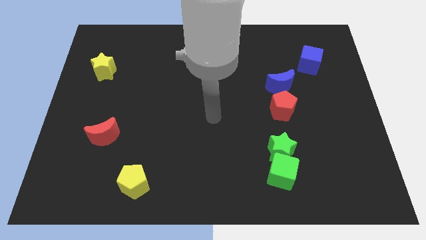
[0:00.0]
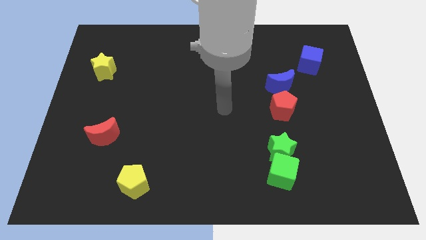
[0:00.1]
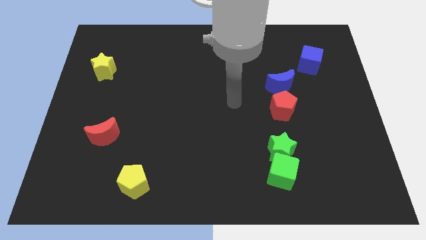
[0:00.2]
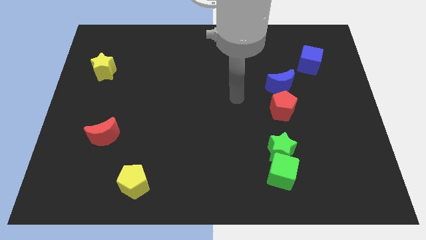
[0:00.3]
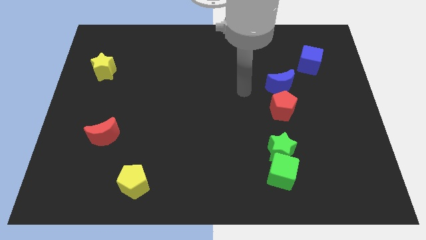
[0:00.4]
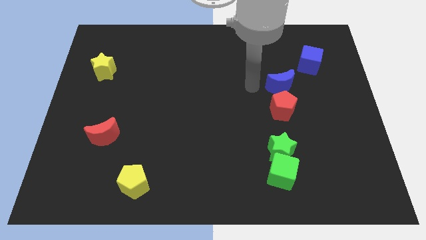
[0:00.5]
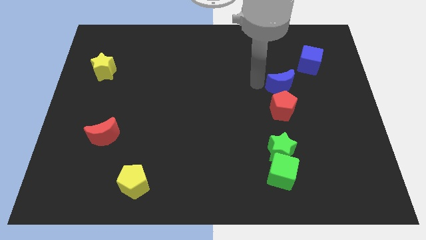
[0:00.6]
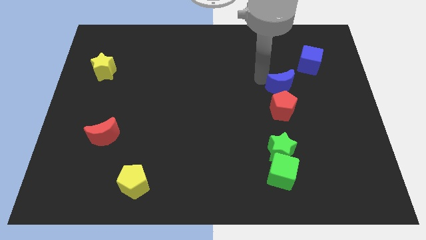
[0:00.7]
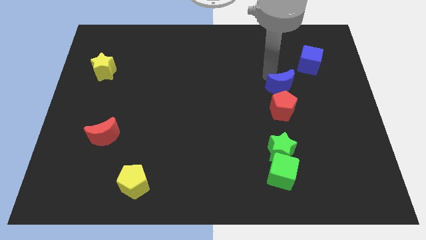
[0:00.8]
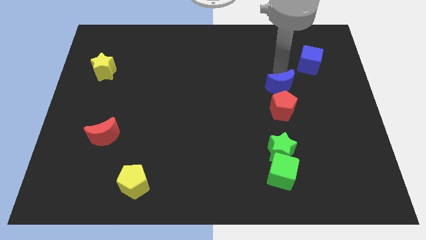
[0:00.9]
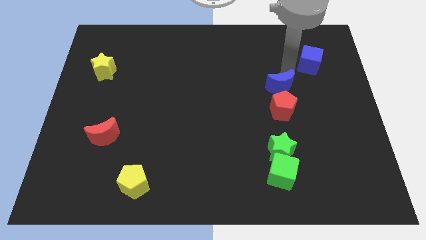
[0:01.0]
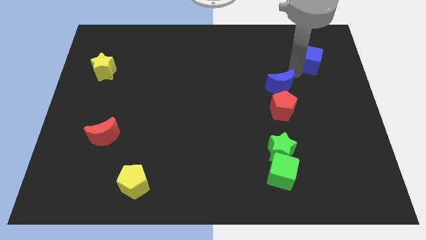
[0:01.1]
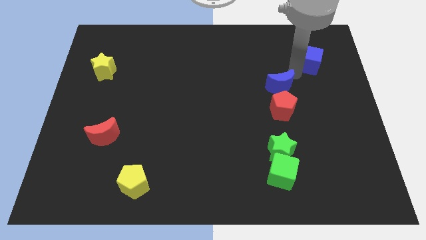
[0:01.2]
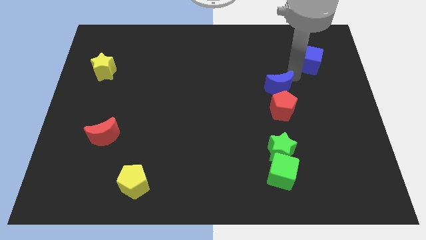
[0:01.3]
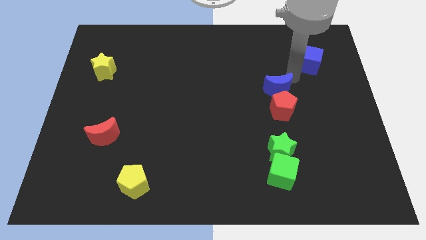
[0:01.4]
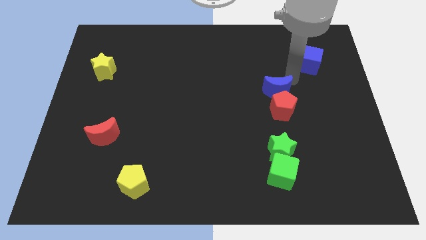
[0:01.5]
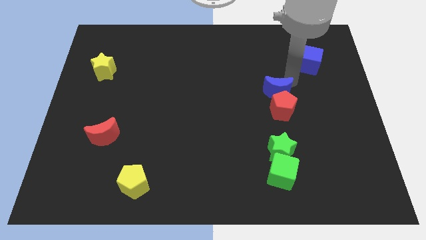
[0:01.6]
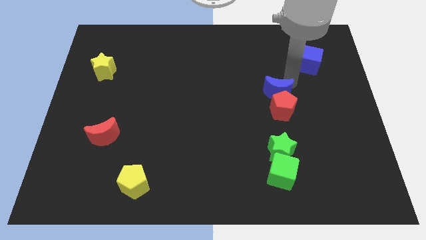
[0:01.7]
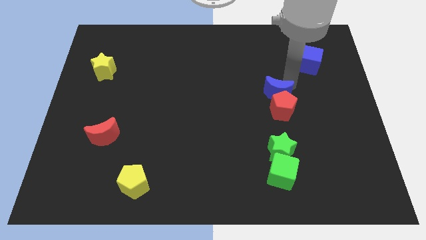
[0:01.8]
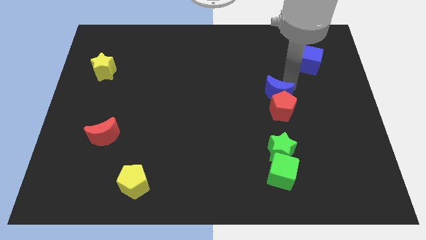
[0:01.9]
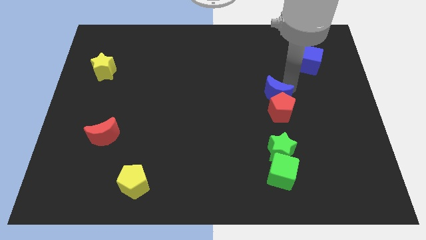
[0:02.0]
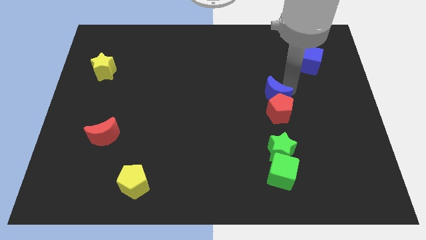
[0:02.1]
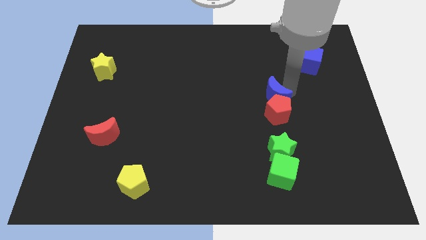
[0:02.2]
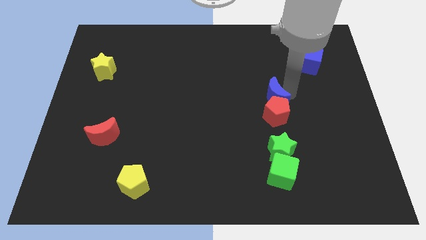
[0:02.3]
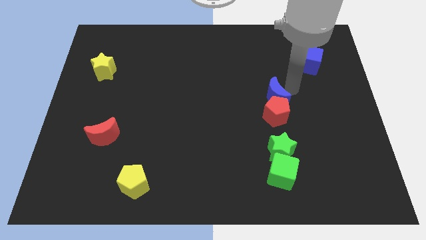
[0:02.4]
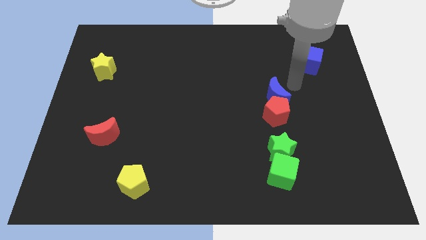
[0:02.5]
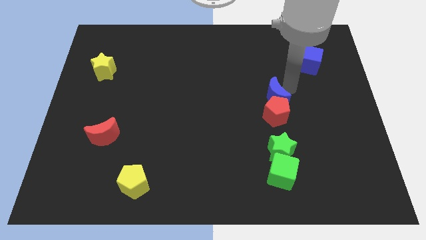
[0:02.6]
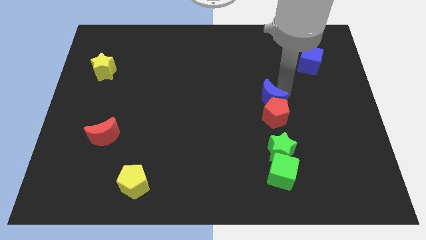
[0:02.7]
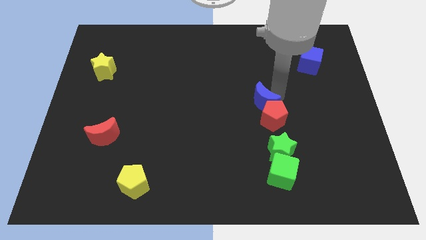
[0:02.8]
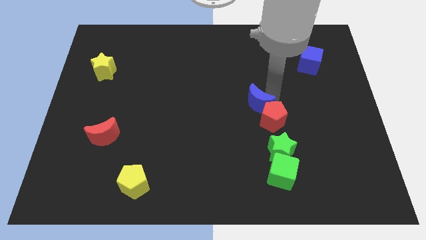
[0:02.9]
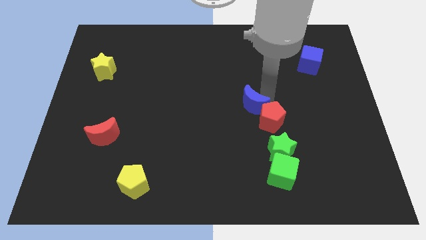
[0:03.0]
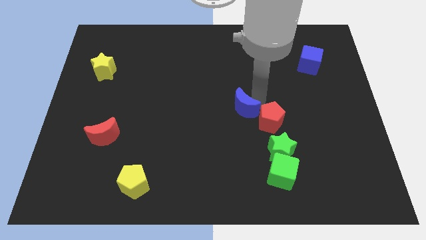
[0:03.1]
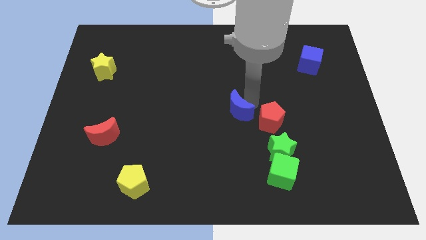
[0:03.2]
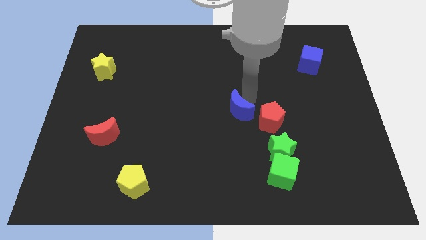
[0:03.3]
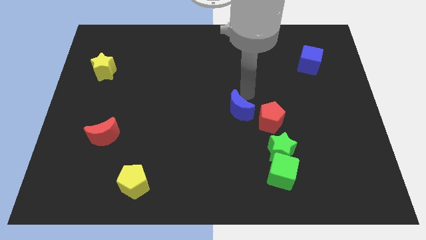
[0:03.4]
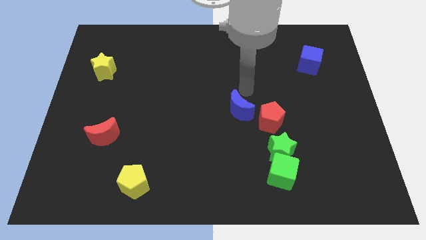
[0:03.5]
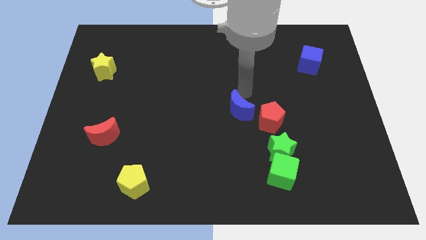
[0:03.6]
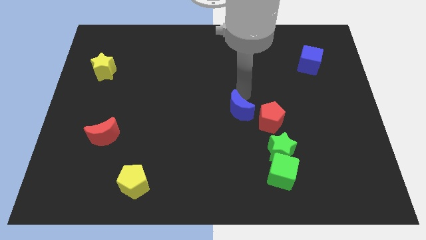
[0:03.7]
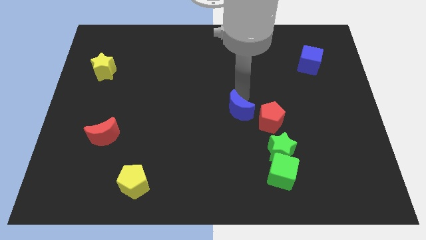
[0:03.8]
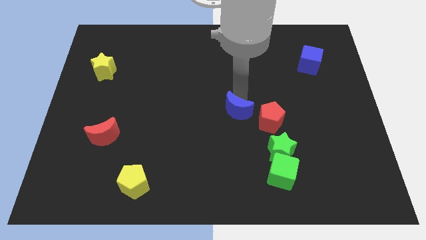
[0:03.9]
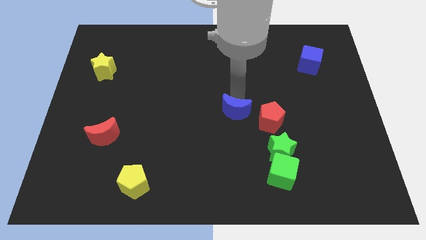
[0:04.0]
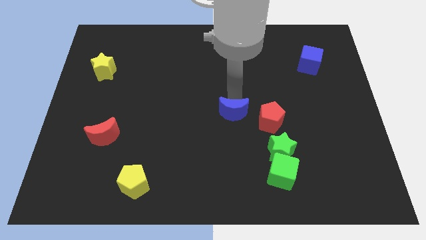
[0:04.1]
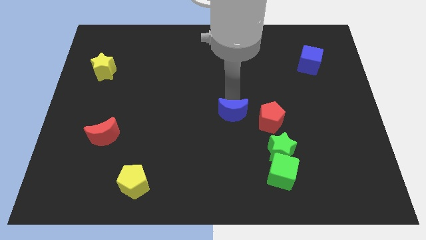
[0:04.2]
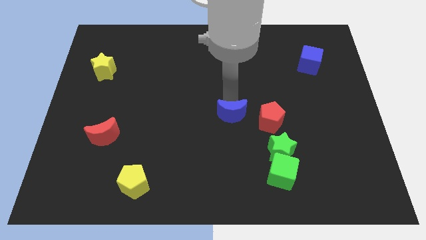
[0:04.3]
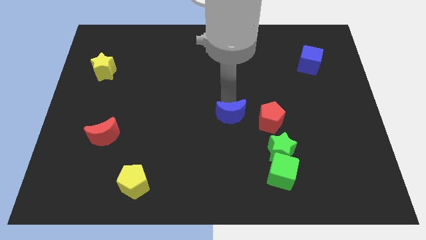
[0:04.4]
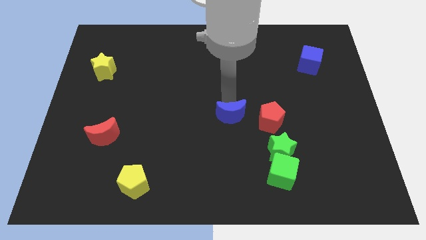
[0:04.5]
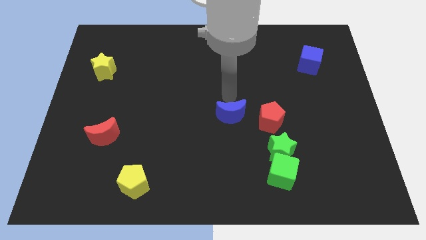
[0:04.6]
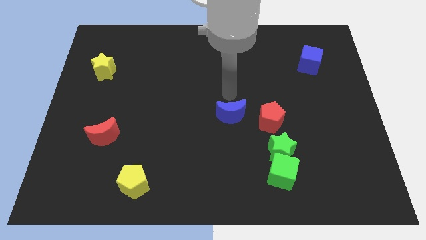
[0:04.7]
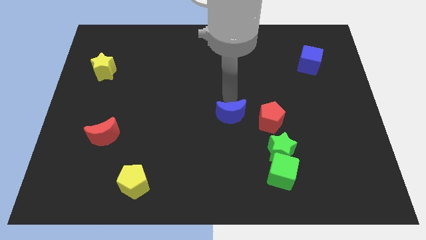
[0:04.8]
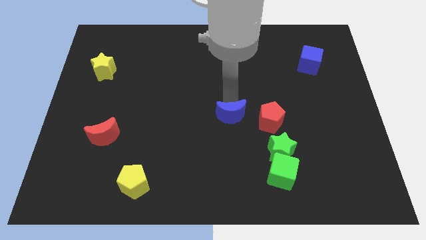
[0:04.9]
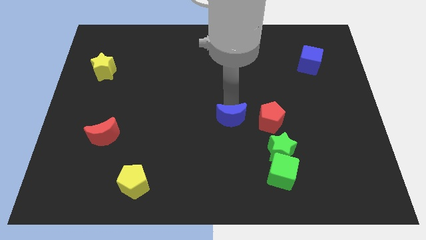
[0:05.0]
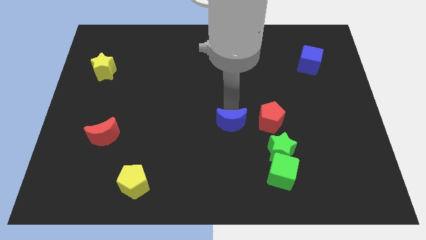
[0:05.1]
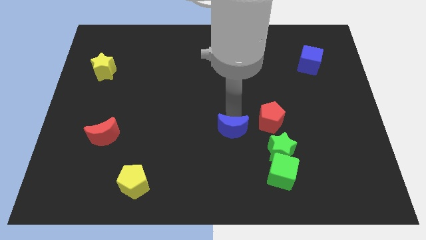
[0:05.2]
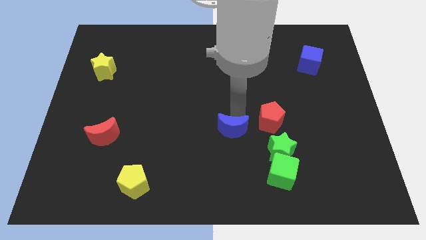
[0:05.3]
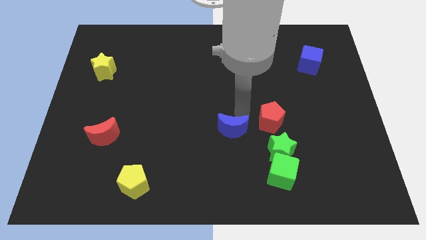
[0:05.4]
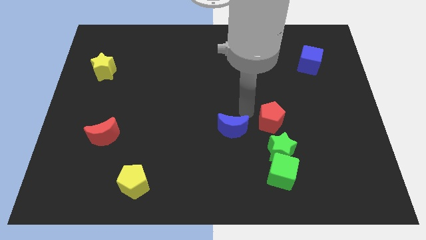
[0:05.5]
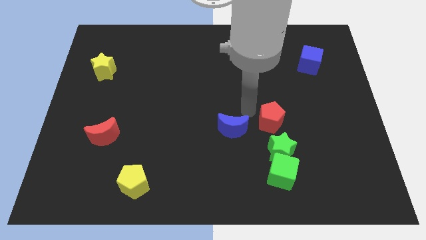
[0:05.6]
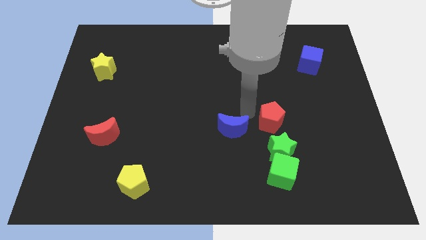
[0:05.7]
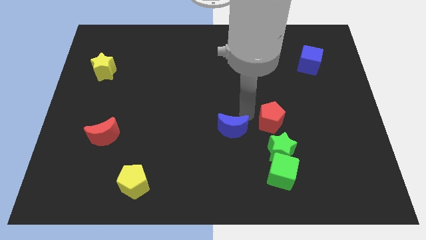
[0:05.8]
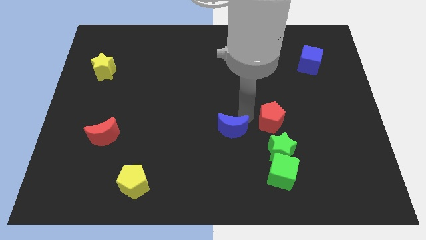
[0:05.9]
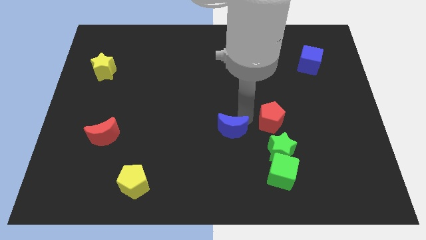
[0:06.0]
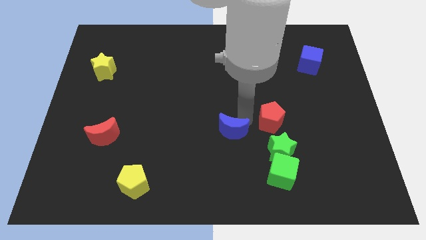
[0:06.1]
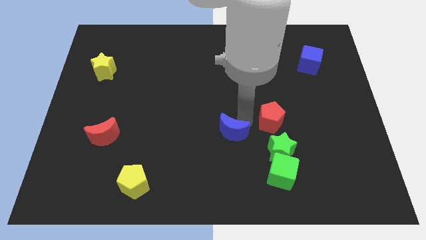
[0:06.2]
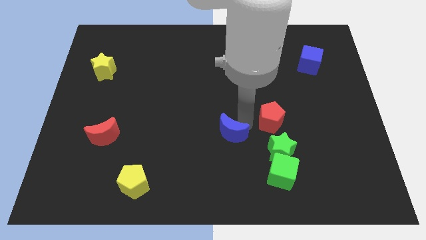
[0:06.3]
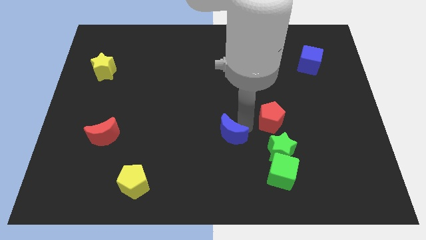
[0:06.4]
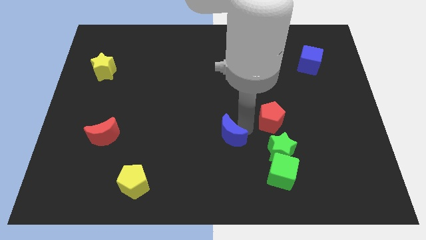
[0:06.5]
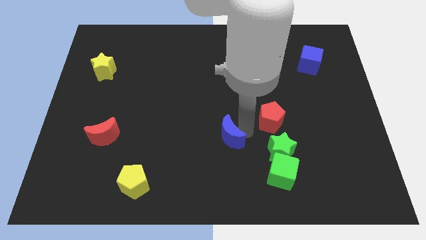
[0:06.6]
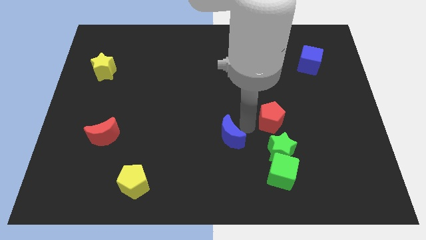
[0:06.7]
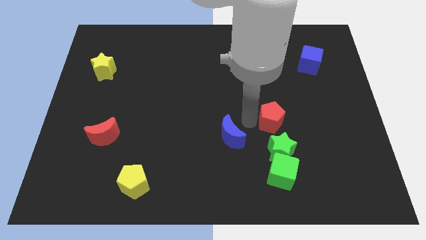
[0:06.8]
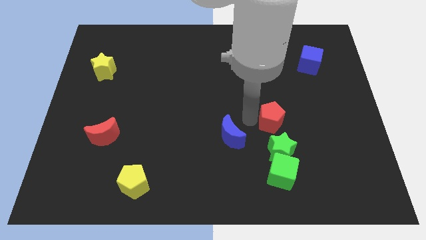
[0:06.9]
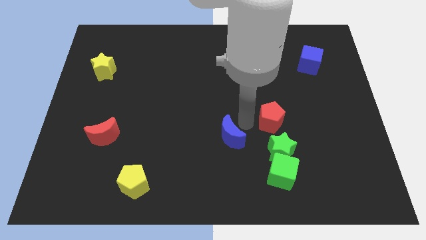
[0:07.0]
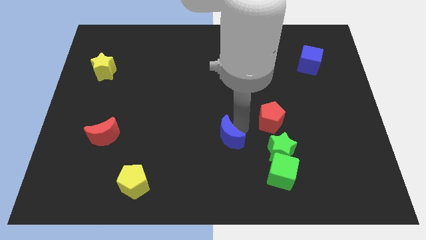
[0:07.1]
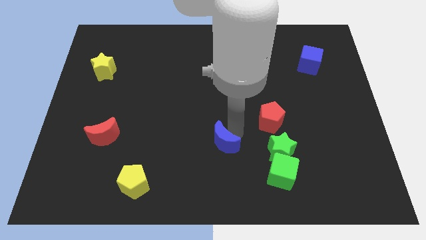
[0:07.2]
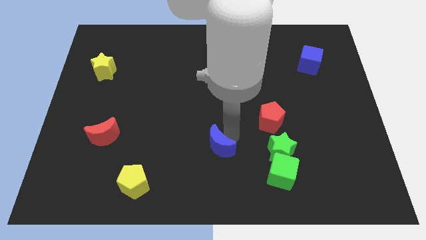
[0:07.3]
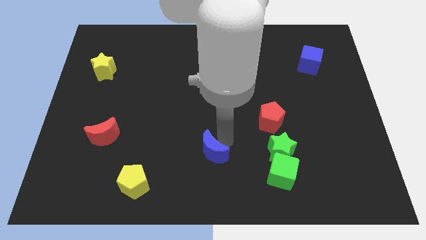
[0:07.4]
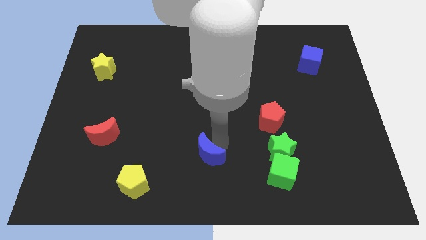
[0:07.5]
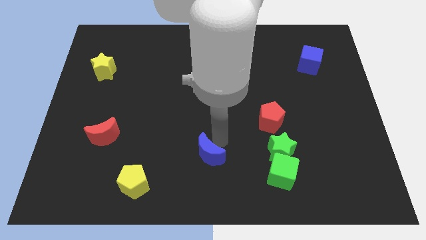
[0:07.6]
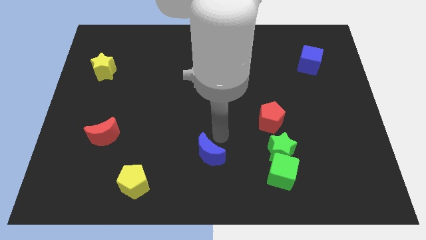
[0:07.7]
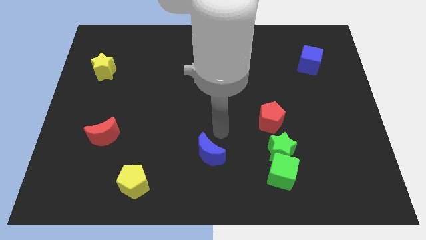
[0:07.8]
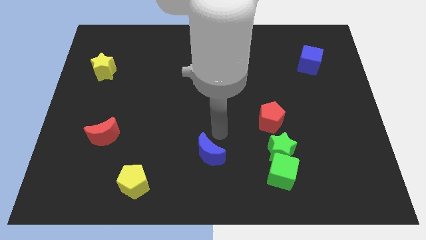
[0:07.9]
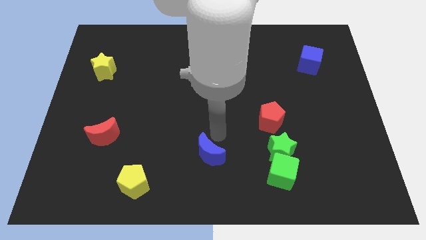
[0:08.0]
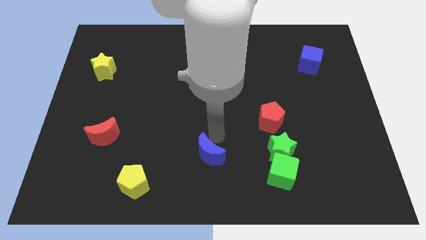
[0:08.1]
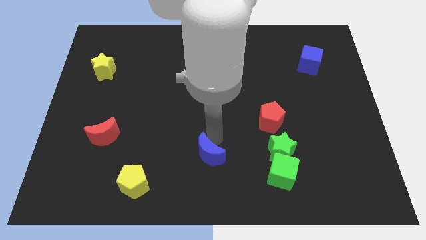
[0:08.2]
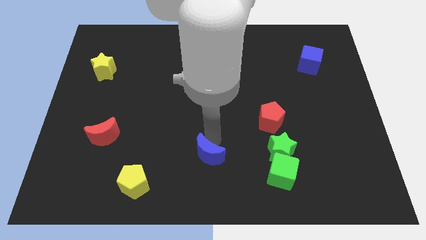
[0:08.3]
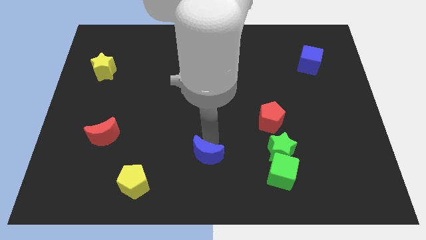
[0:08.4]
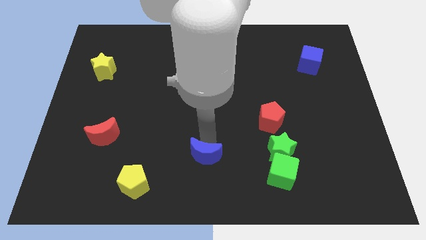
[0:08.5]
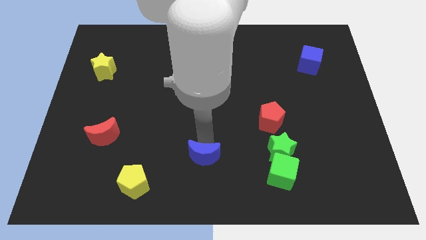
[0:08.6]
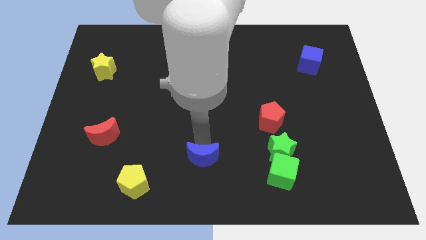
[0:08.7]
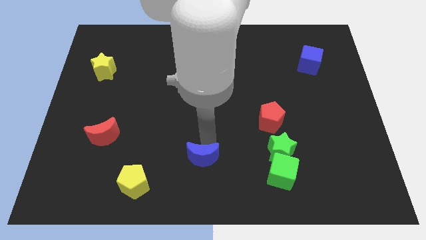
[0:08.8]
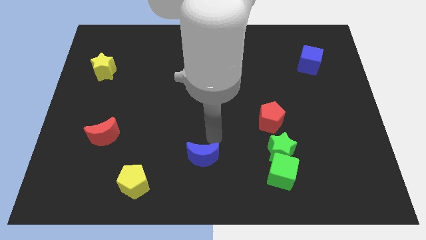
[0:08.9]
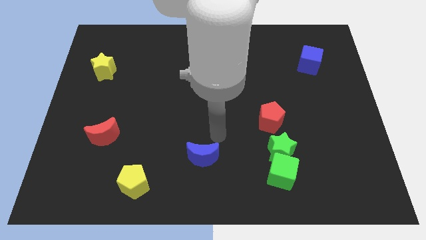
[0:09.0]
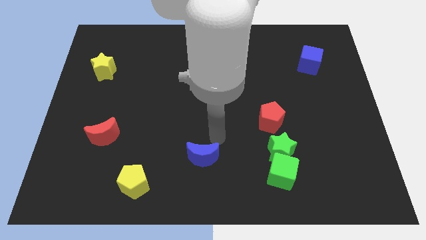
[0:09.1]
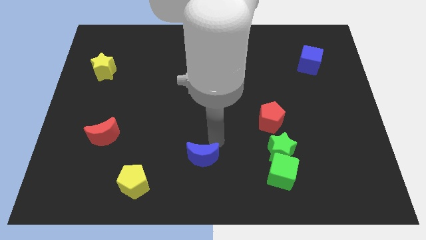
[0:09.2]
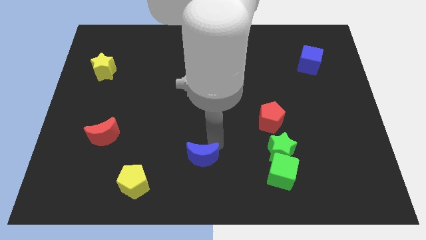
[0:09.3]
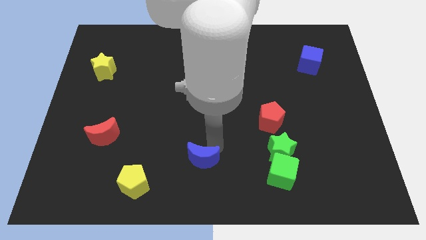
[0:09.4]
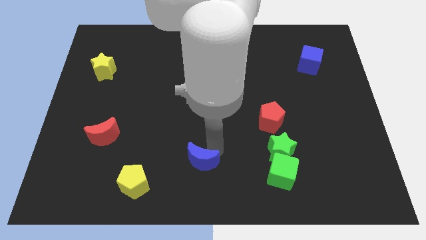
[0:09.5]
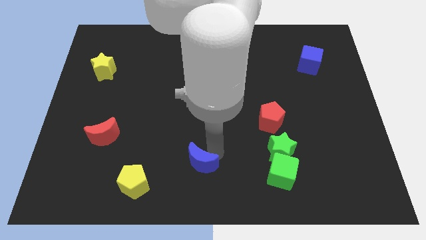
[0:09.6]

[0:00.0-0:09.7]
push the blue moon to the right of the yellow pentagon
